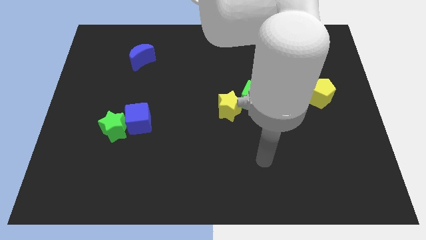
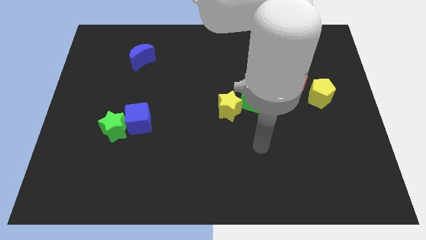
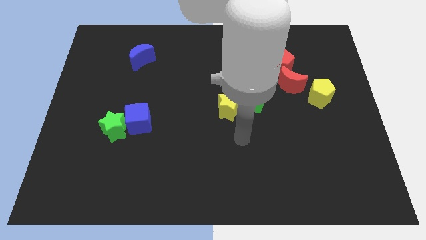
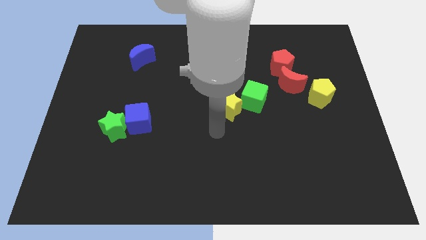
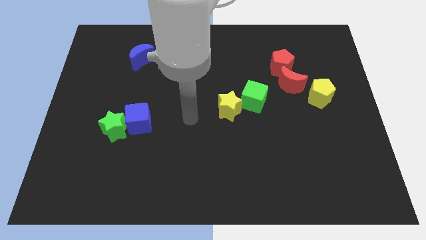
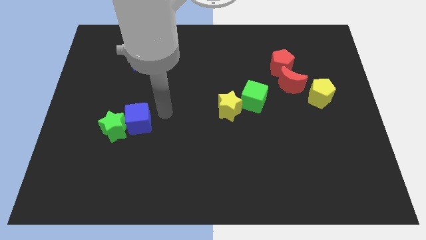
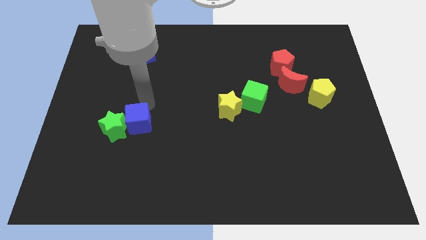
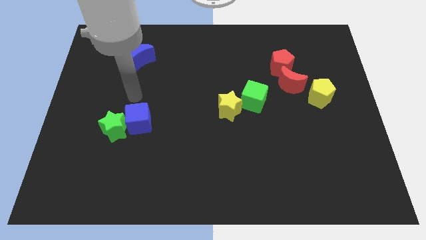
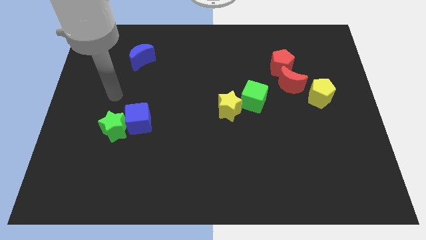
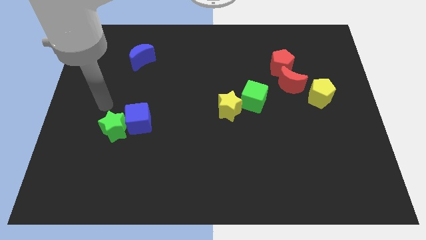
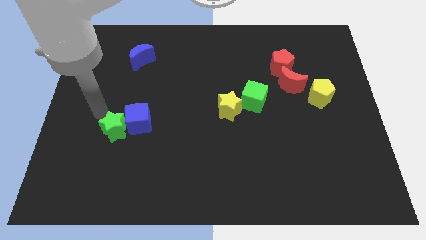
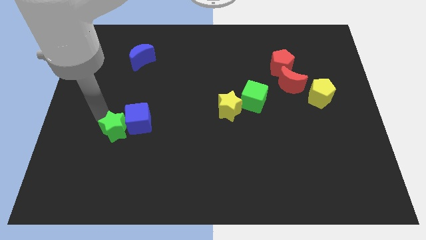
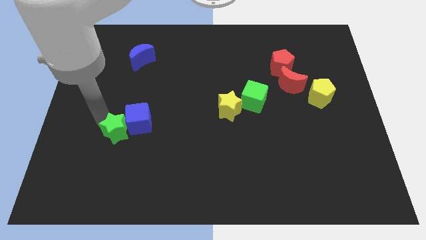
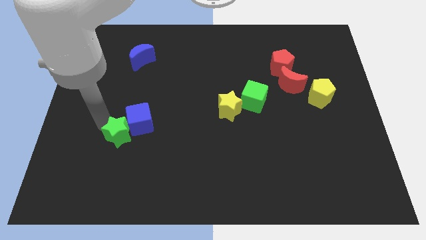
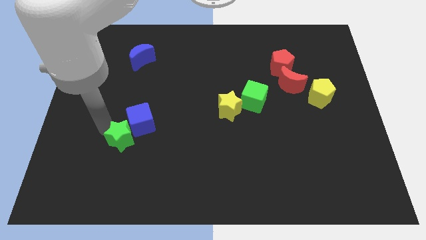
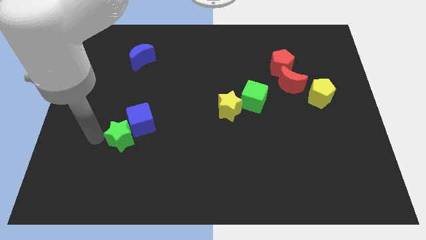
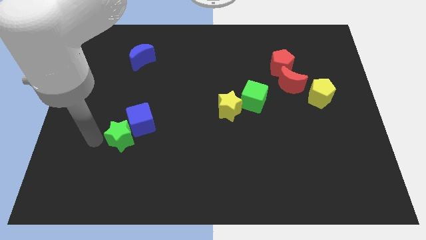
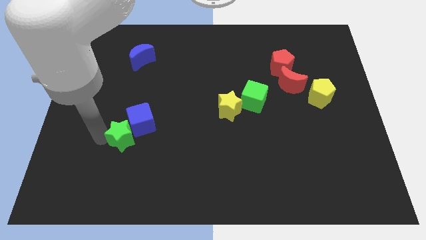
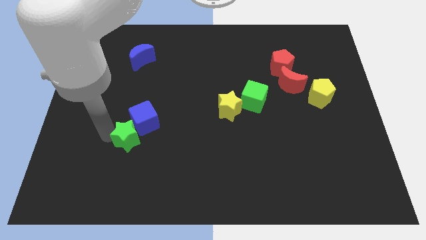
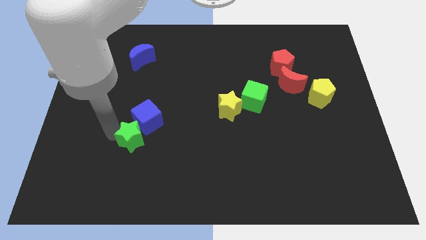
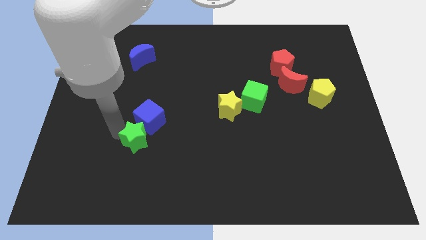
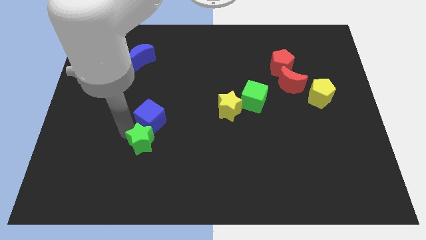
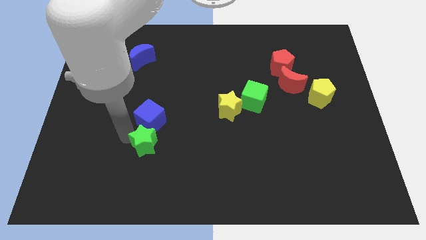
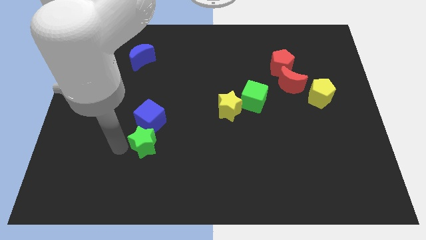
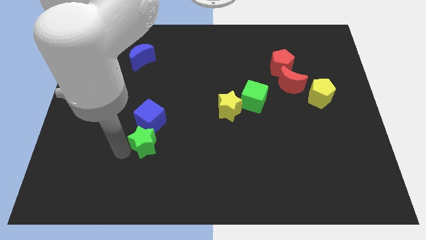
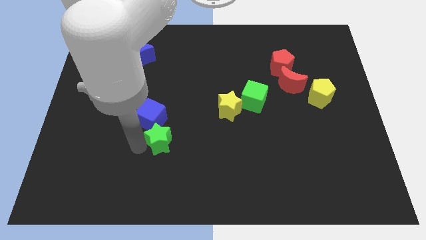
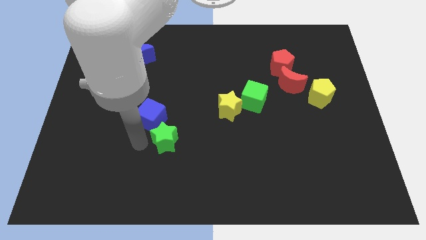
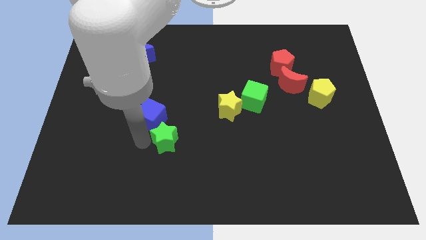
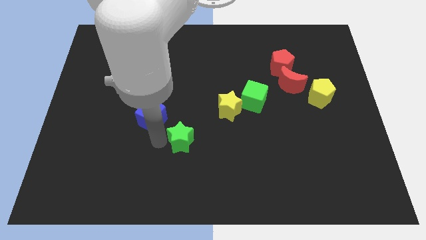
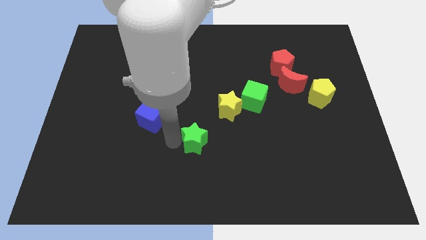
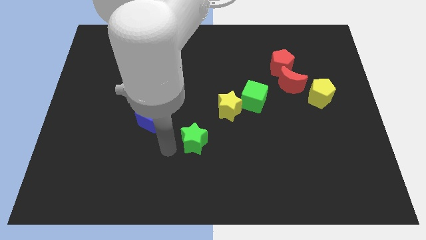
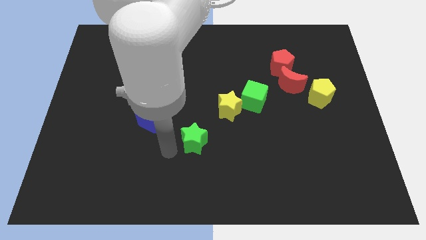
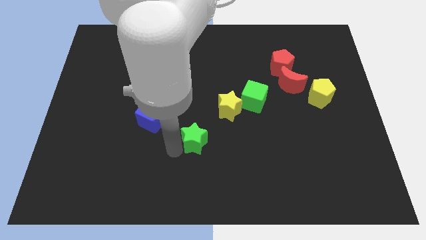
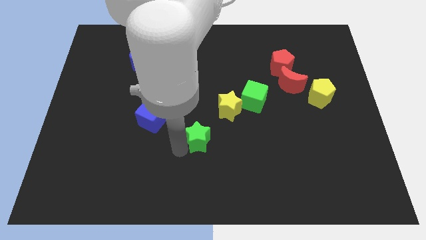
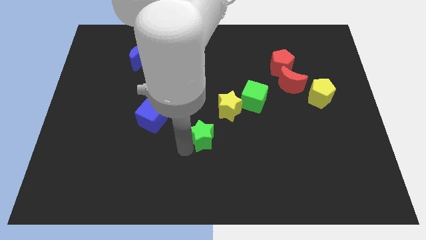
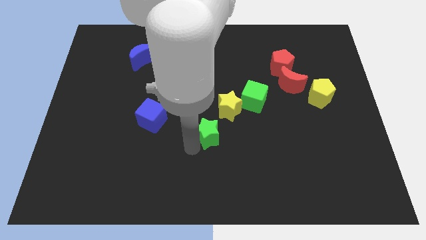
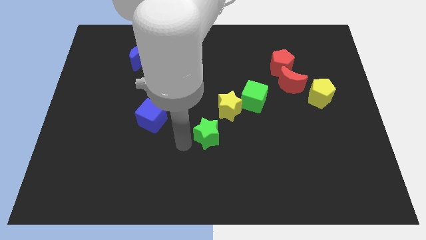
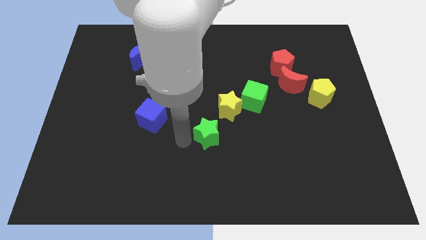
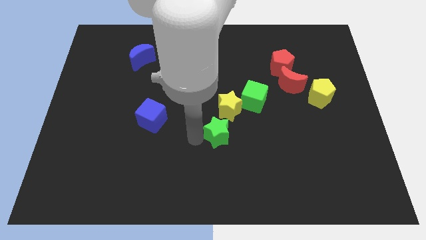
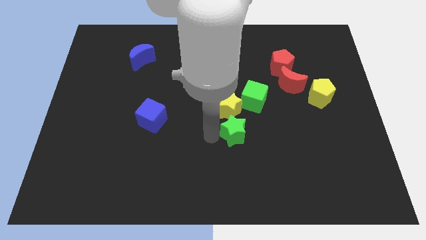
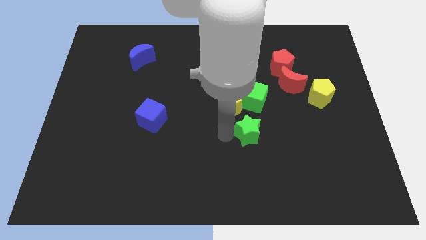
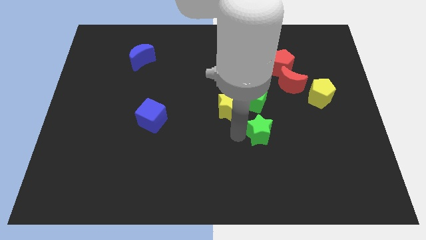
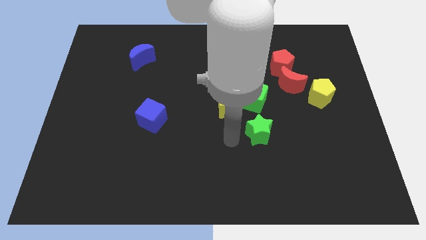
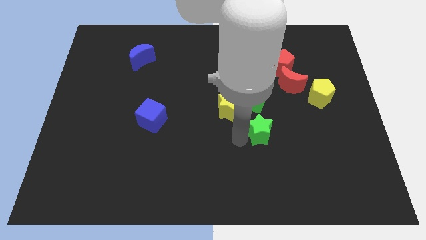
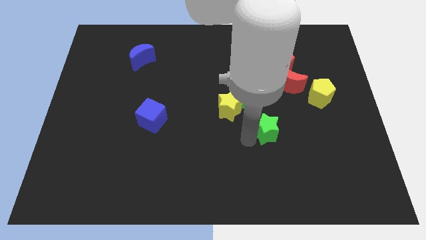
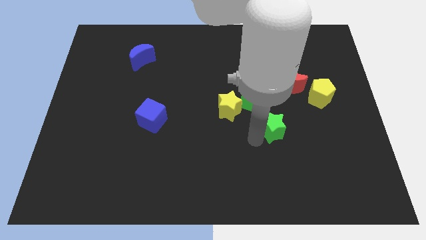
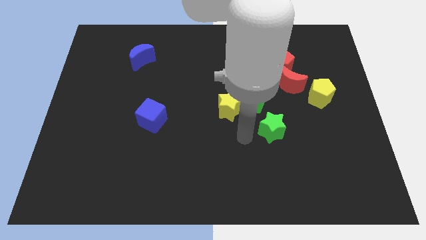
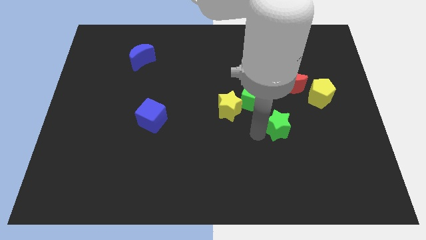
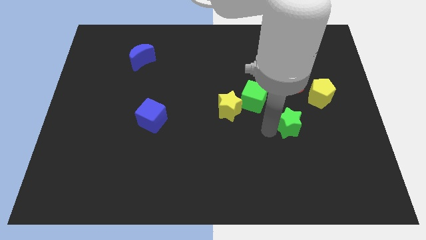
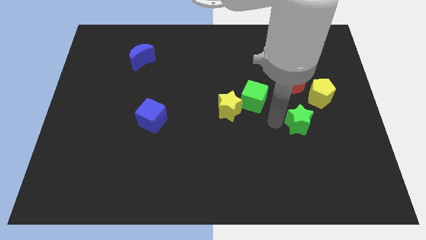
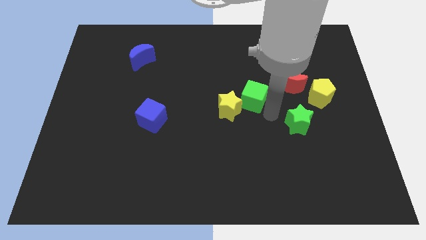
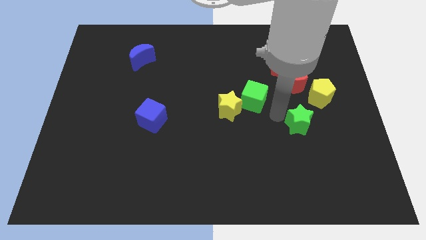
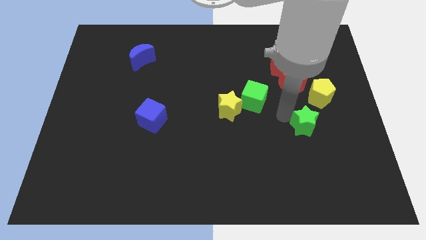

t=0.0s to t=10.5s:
put the green star to the bottom of the yellow pentagon

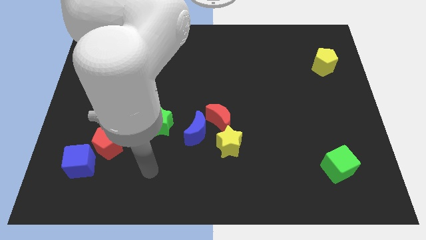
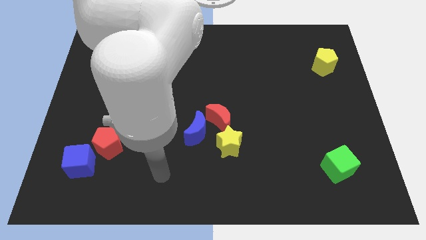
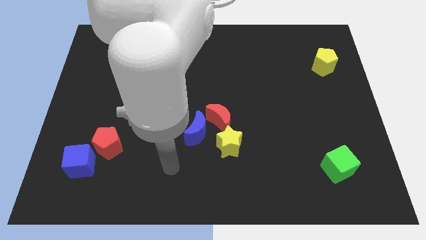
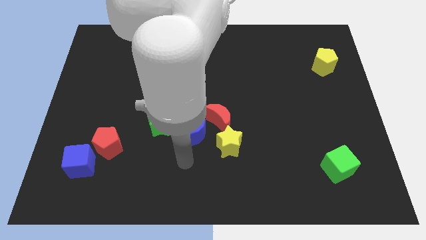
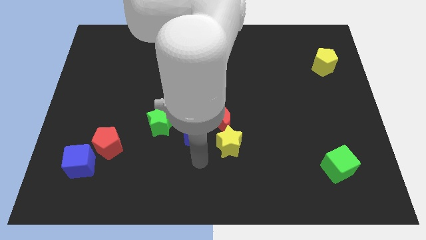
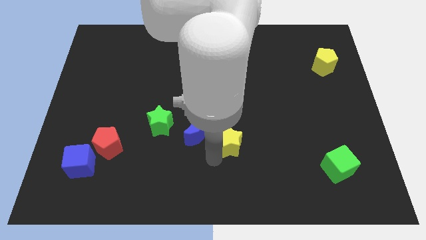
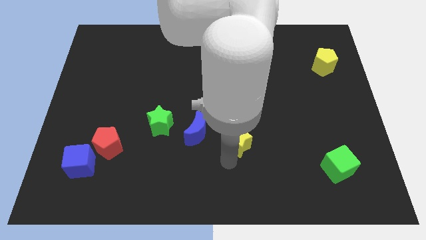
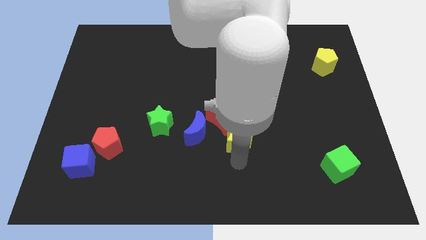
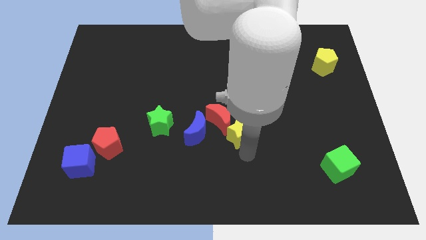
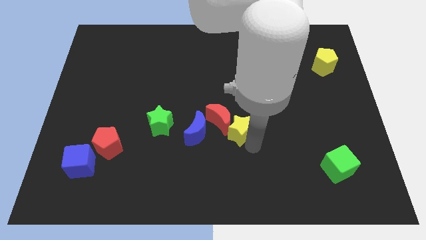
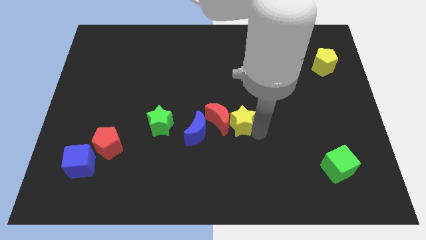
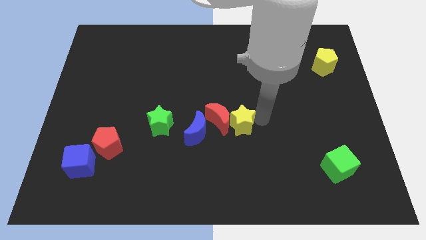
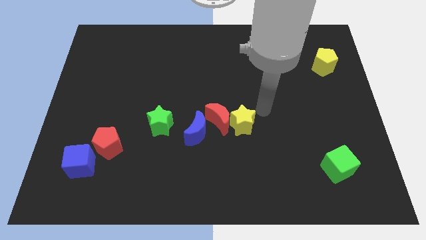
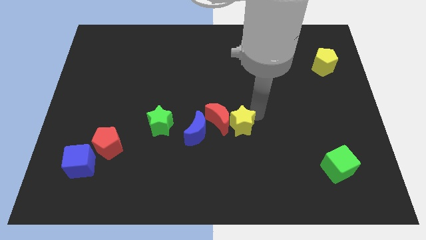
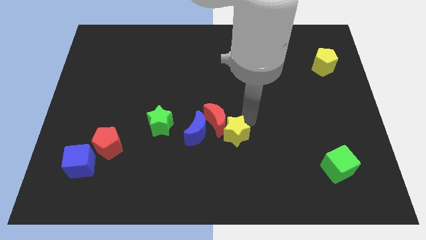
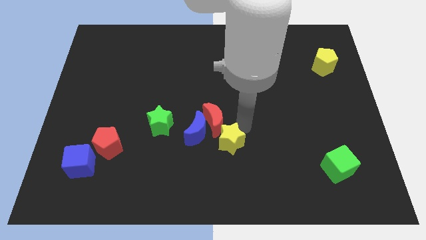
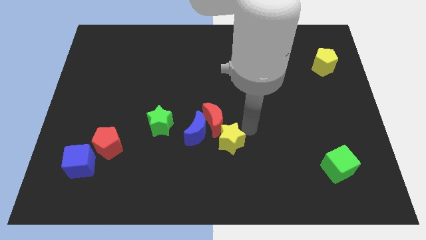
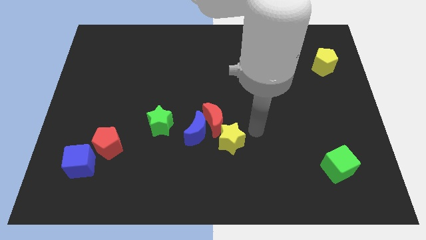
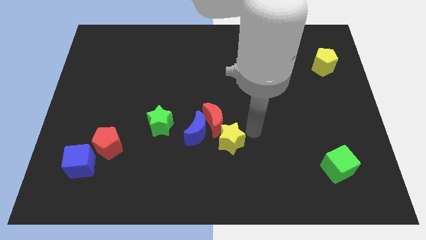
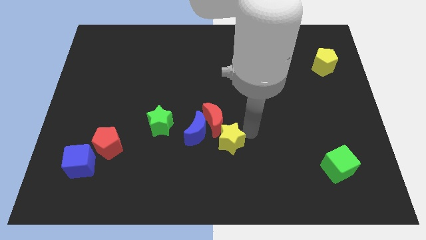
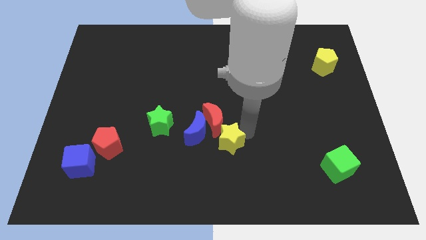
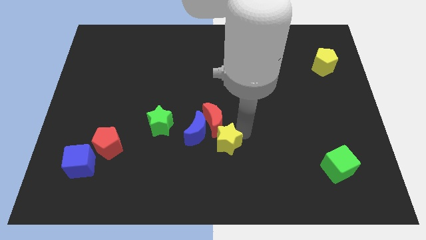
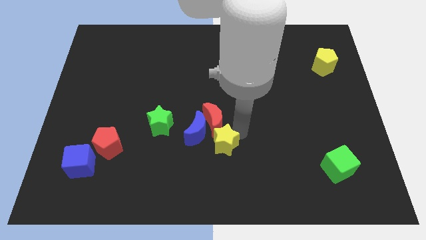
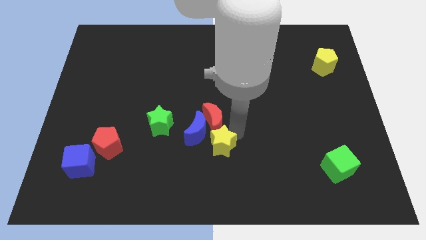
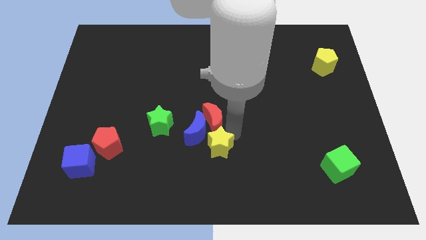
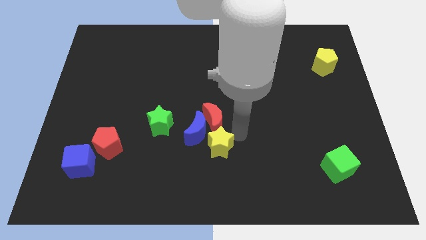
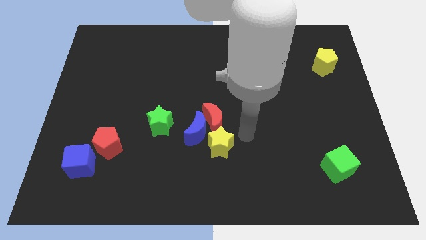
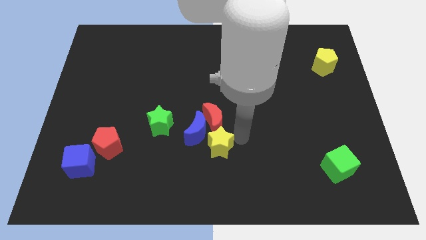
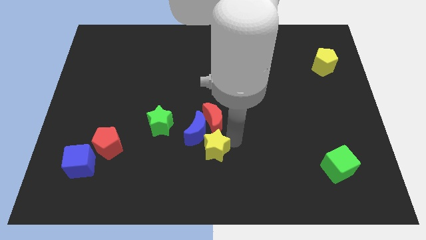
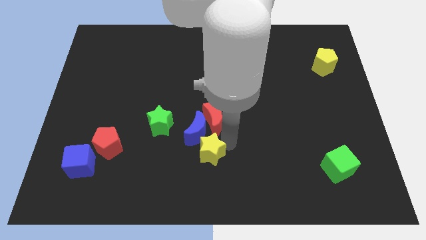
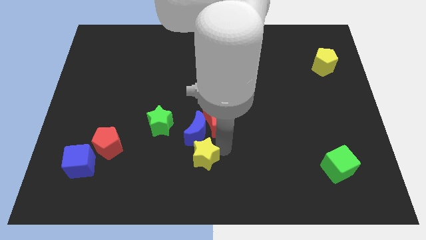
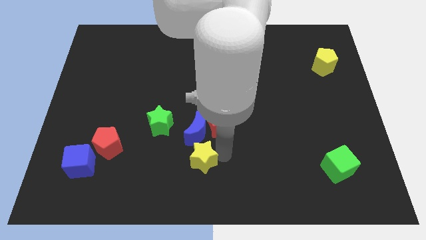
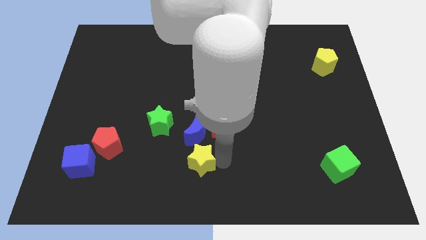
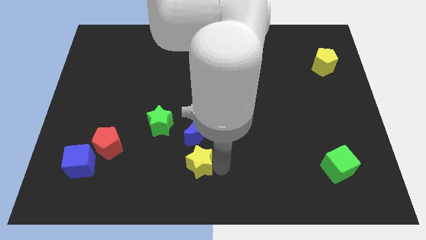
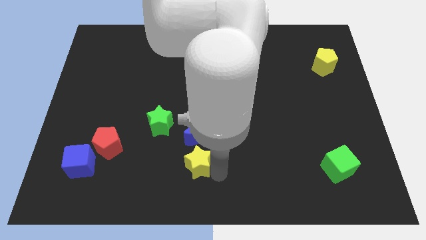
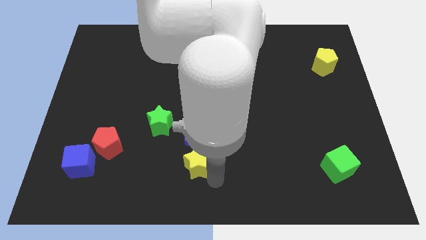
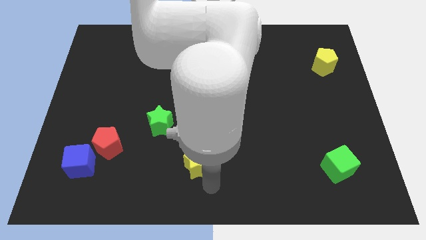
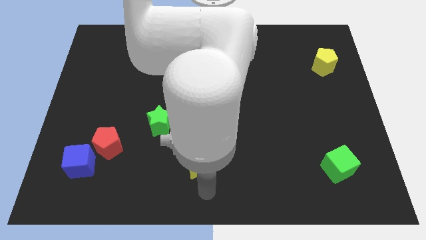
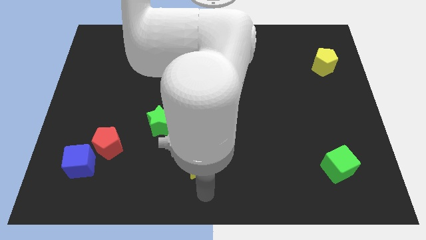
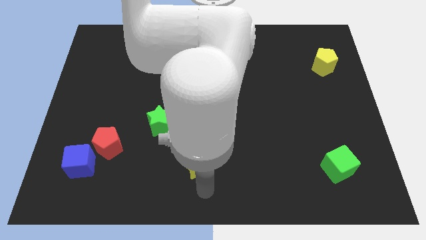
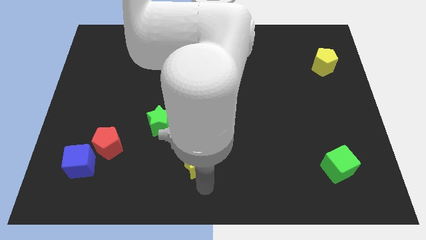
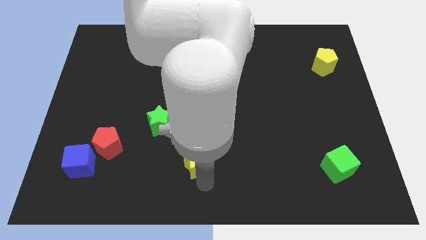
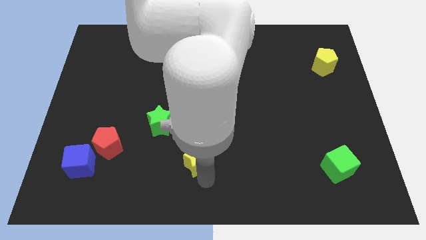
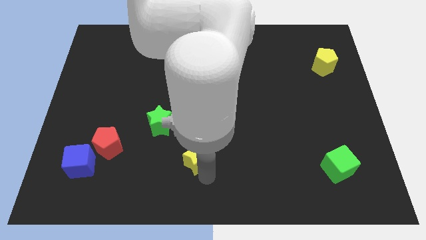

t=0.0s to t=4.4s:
move the yellow star to the bottom left of the red moon
